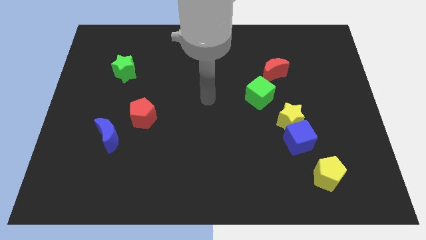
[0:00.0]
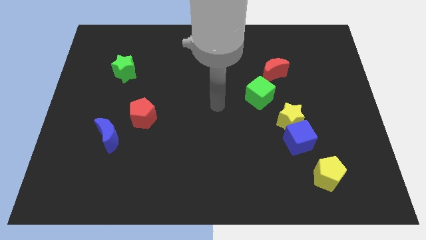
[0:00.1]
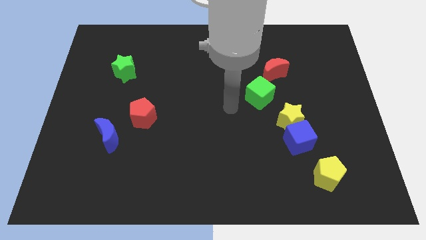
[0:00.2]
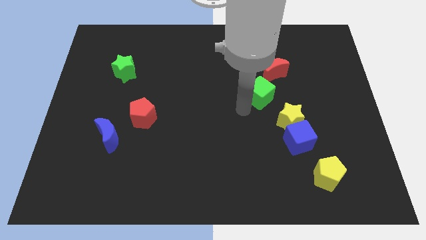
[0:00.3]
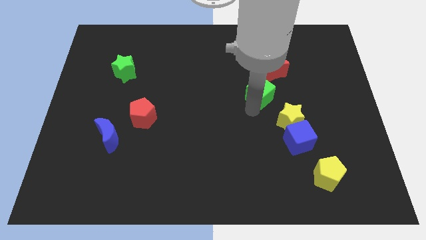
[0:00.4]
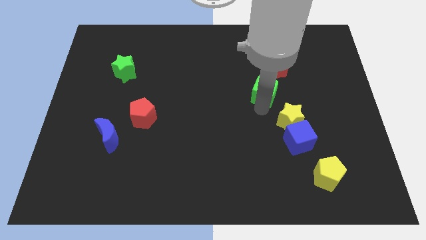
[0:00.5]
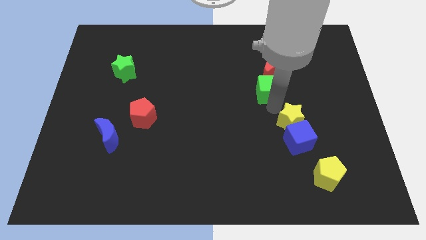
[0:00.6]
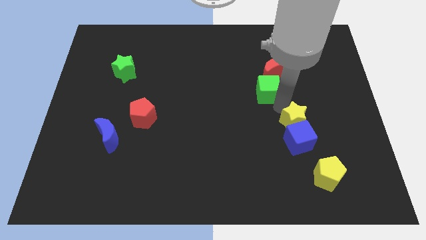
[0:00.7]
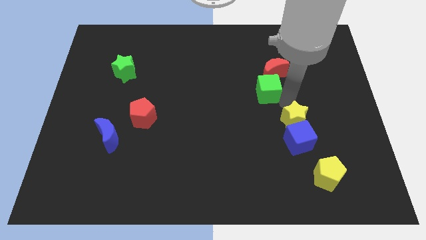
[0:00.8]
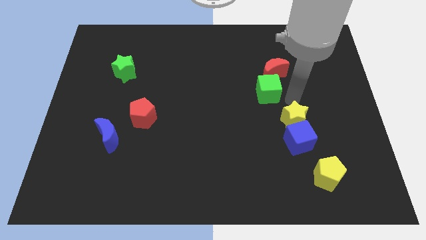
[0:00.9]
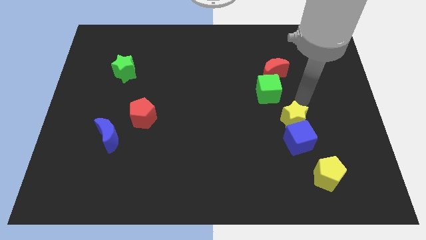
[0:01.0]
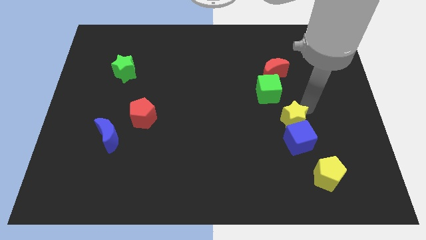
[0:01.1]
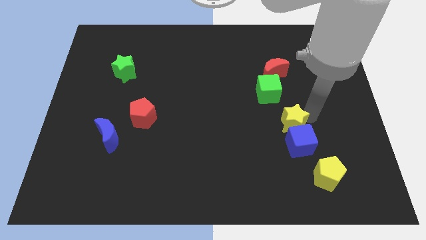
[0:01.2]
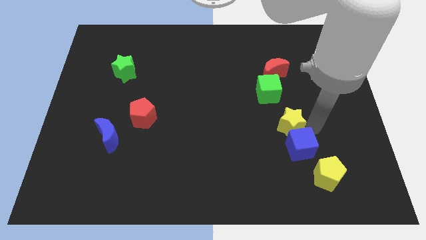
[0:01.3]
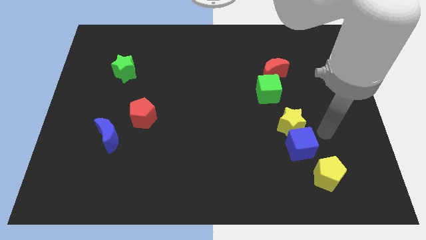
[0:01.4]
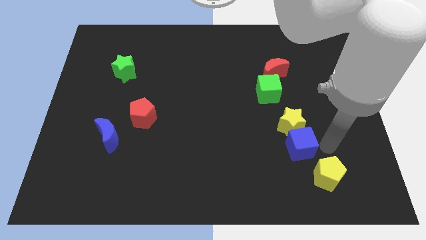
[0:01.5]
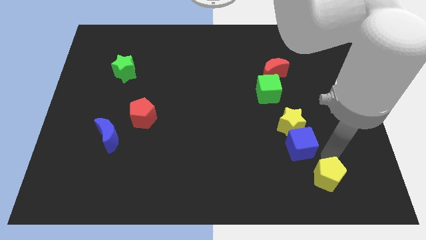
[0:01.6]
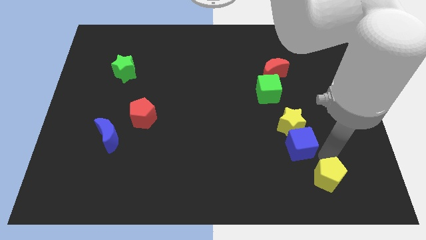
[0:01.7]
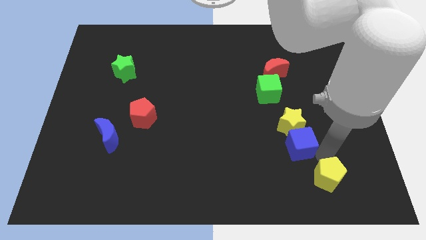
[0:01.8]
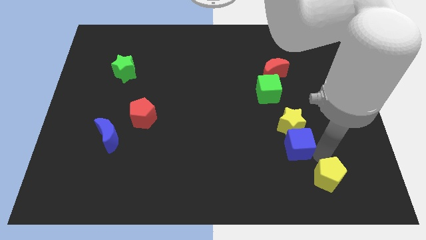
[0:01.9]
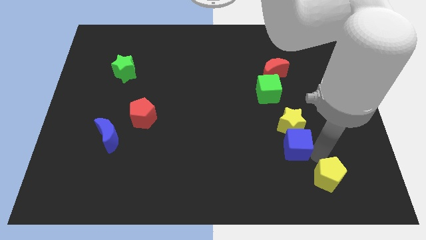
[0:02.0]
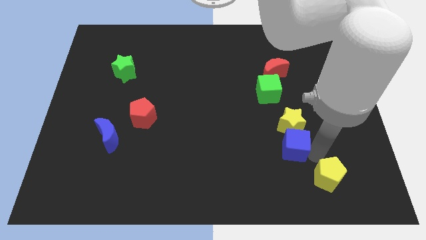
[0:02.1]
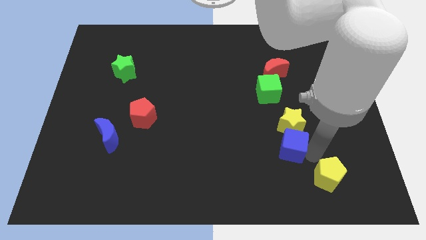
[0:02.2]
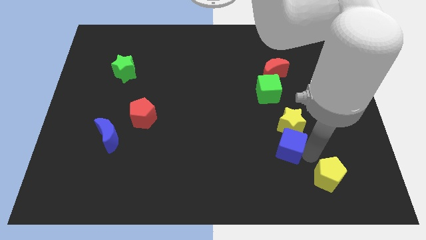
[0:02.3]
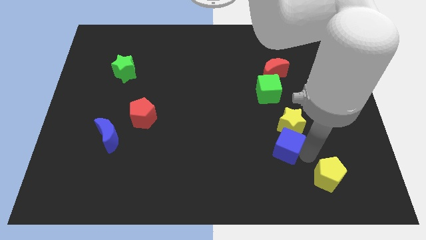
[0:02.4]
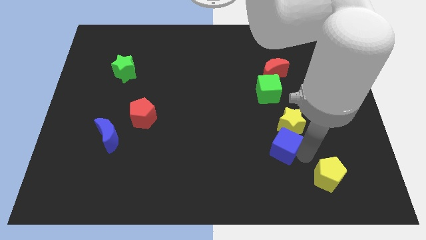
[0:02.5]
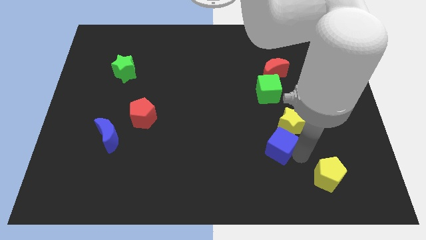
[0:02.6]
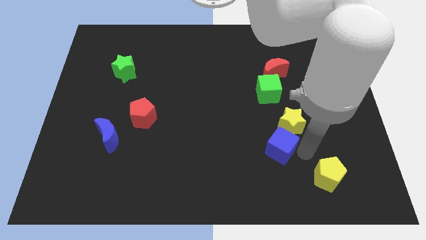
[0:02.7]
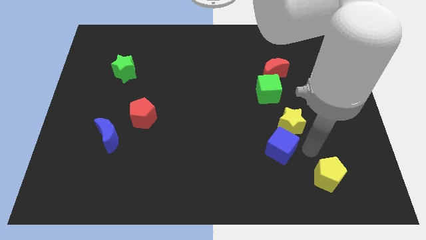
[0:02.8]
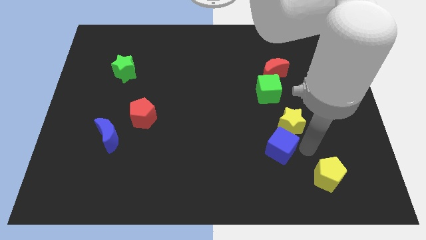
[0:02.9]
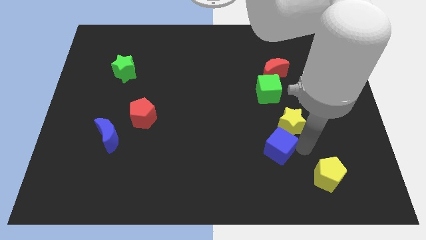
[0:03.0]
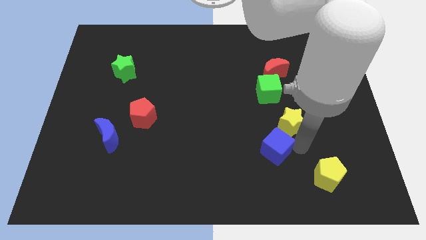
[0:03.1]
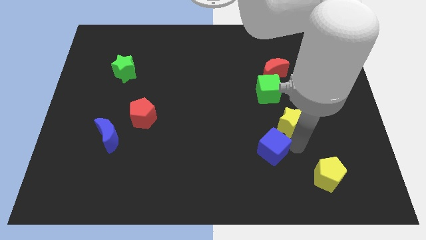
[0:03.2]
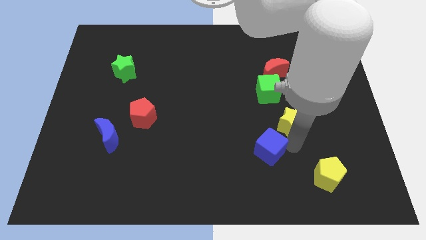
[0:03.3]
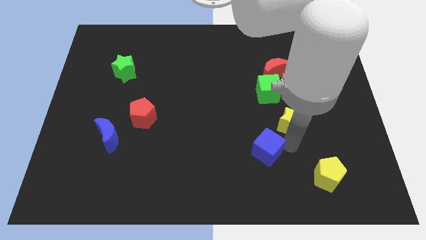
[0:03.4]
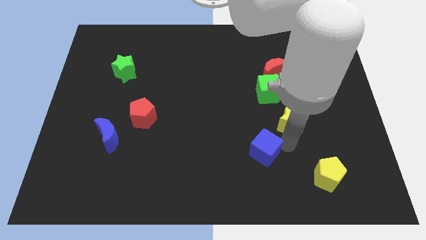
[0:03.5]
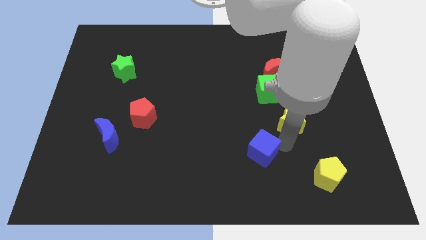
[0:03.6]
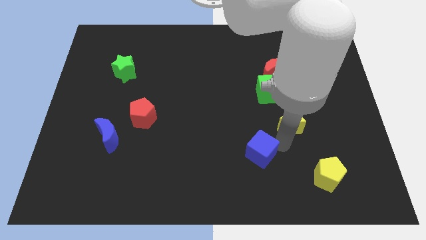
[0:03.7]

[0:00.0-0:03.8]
move the blue cube away from the yellow star and yellow pentagon

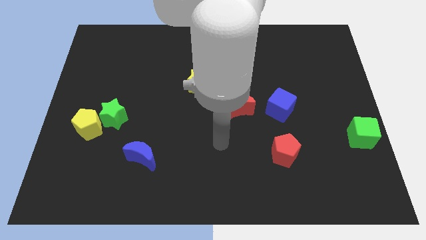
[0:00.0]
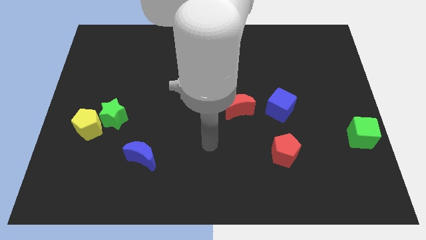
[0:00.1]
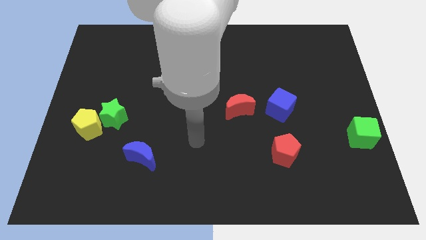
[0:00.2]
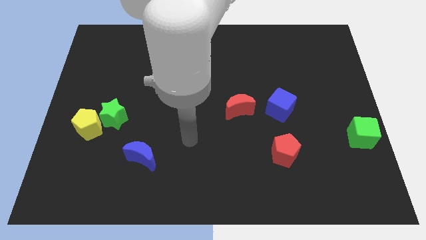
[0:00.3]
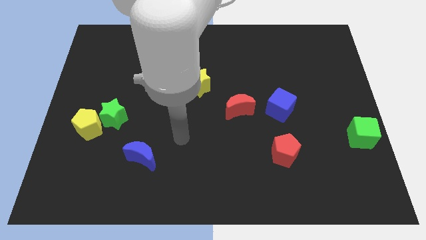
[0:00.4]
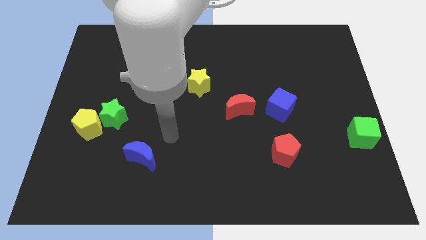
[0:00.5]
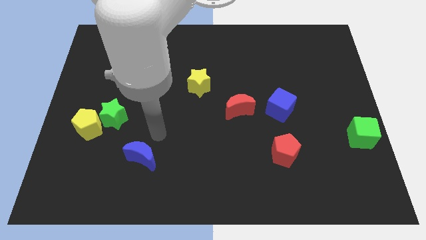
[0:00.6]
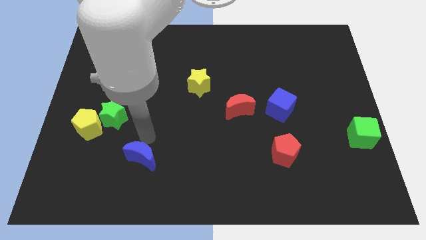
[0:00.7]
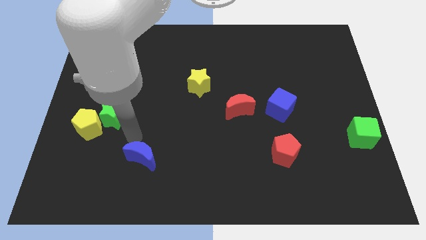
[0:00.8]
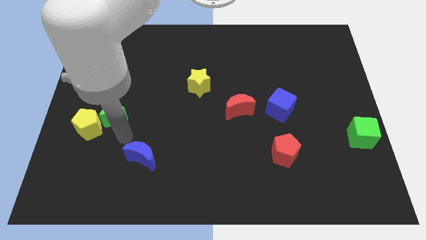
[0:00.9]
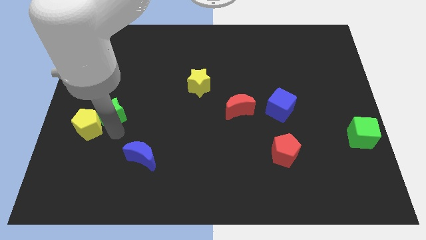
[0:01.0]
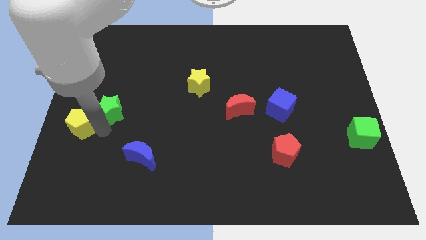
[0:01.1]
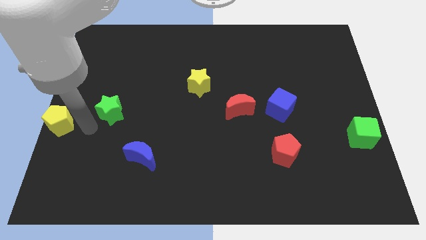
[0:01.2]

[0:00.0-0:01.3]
separate the green star from the yellow pentagon

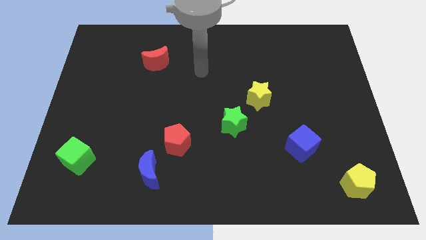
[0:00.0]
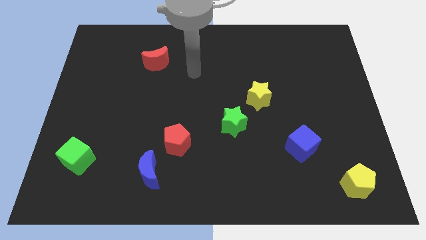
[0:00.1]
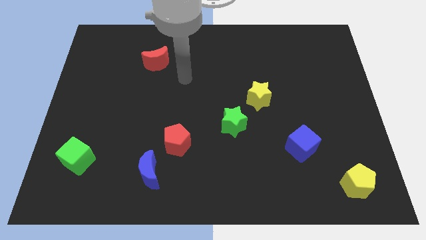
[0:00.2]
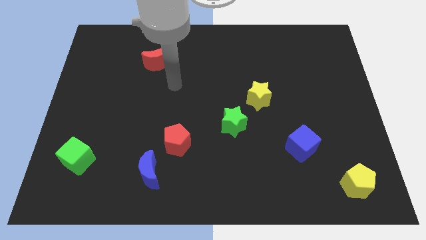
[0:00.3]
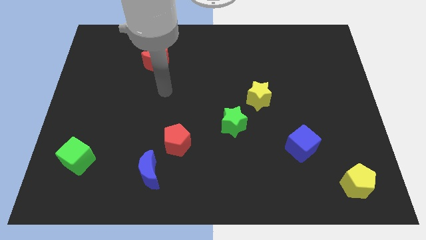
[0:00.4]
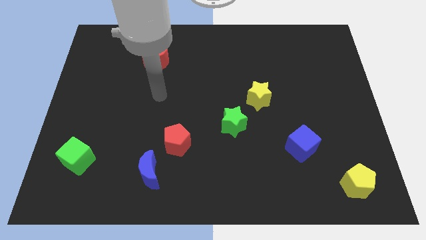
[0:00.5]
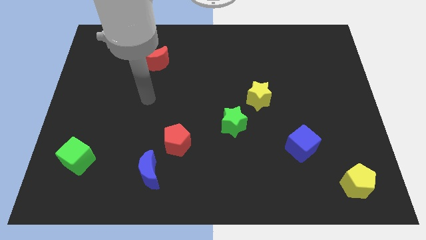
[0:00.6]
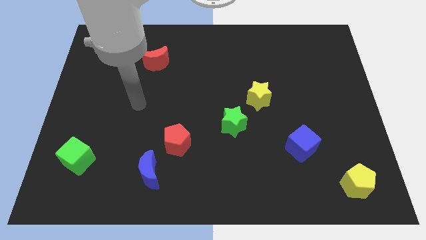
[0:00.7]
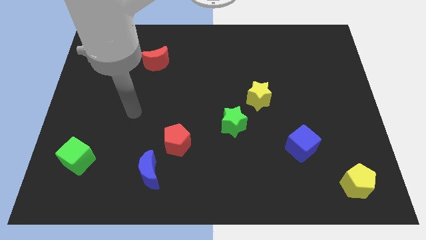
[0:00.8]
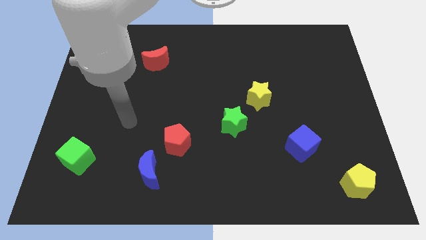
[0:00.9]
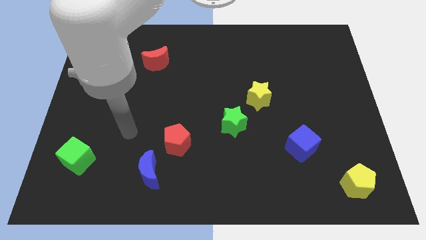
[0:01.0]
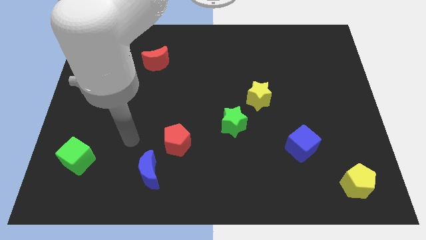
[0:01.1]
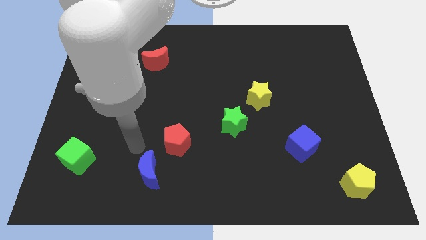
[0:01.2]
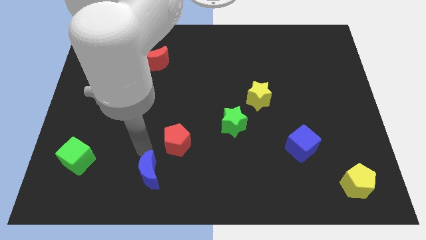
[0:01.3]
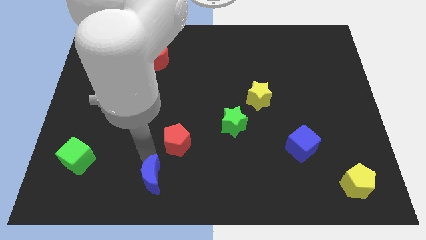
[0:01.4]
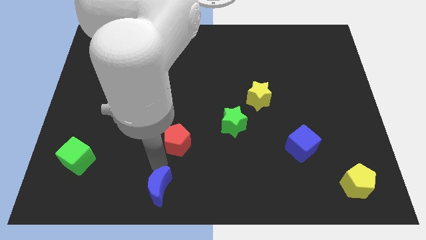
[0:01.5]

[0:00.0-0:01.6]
move the red pentagon away from the blue moon

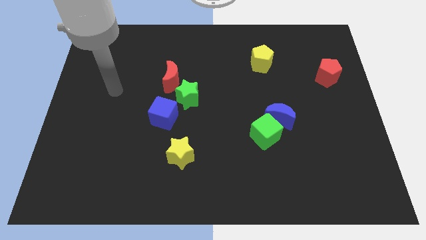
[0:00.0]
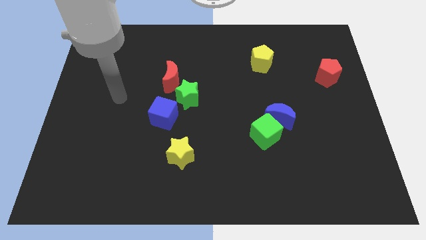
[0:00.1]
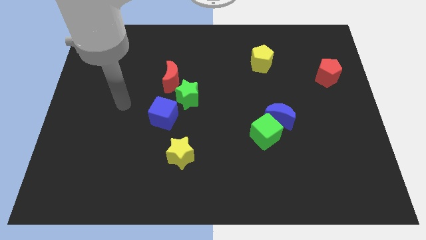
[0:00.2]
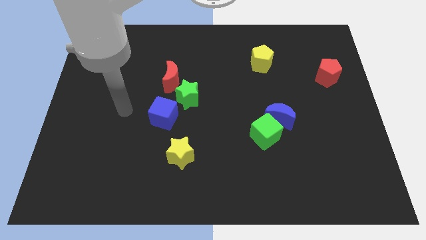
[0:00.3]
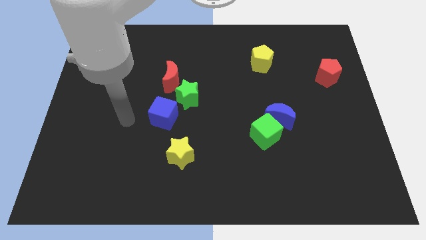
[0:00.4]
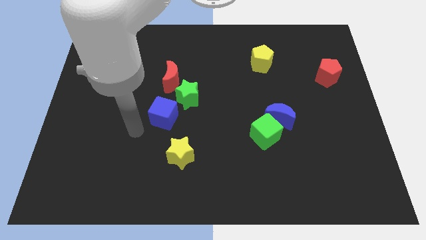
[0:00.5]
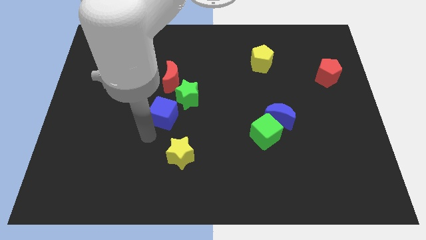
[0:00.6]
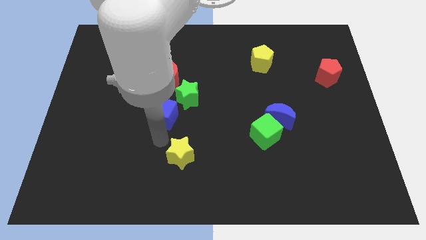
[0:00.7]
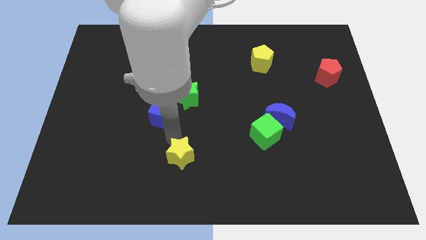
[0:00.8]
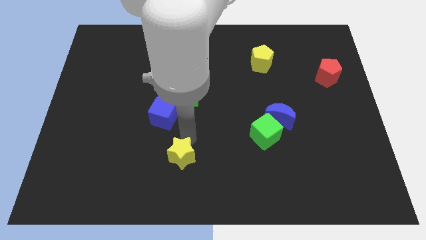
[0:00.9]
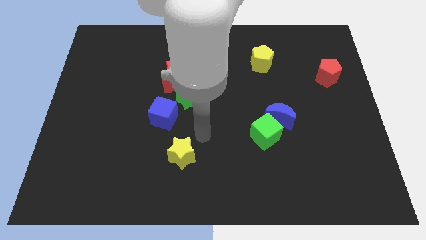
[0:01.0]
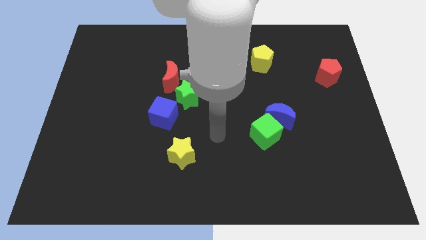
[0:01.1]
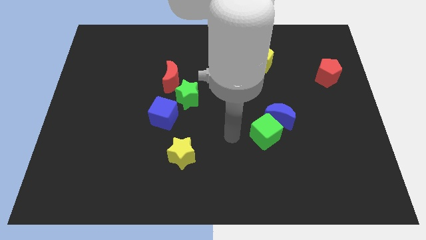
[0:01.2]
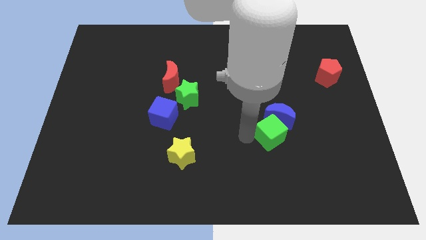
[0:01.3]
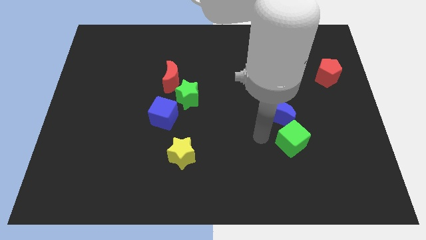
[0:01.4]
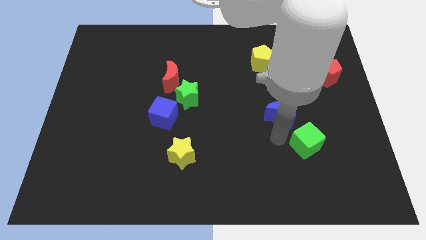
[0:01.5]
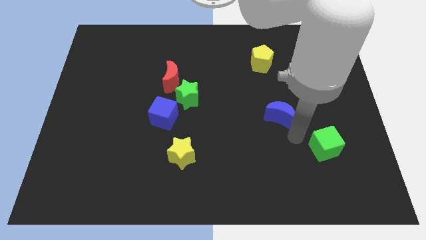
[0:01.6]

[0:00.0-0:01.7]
pull the blue moon apart from the green cube

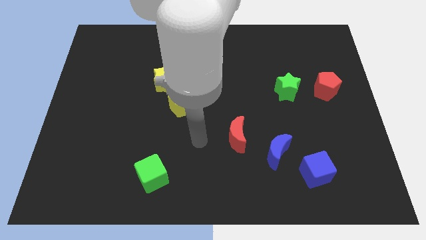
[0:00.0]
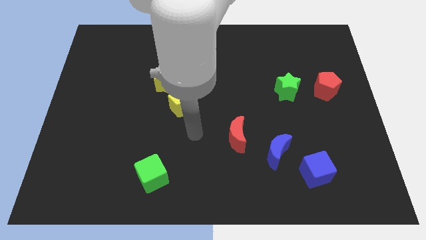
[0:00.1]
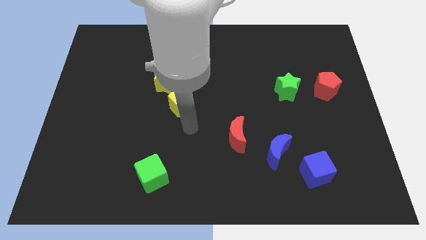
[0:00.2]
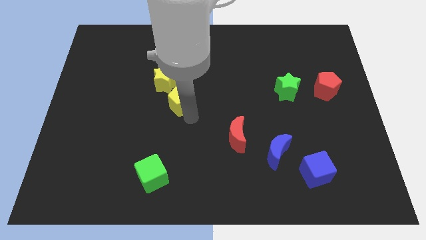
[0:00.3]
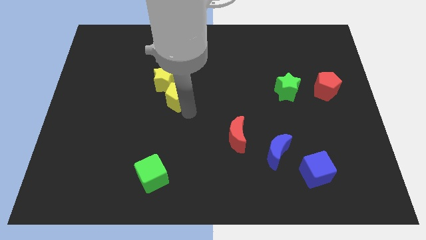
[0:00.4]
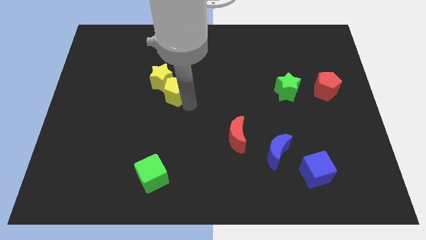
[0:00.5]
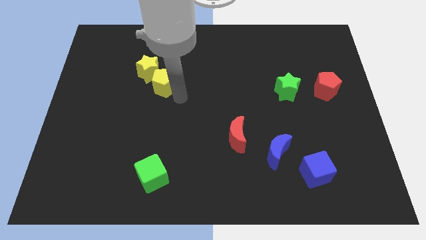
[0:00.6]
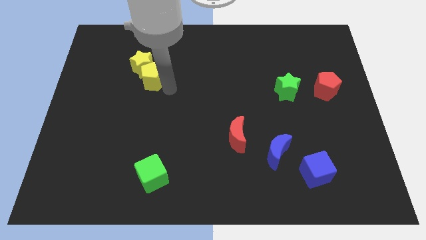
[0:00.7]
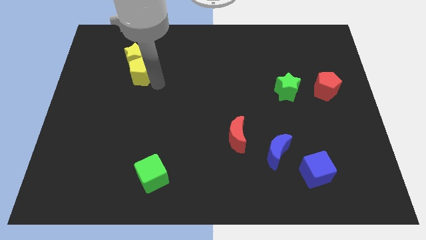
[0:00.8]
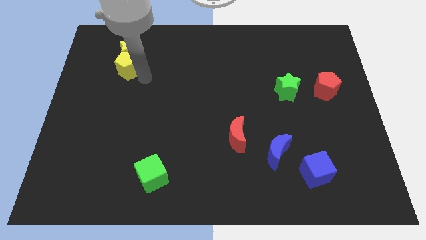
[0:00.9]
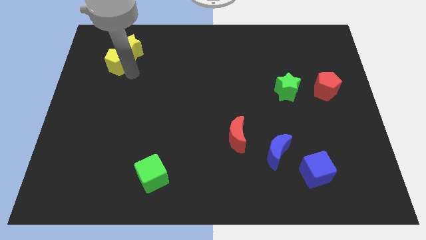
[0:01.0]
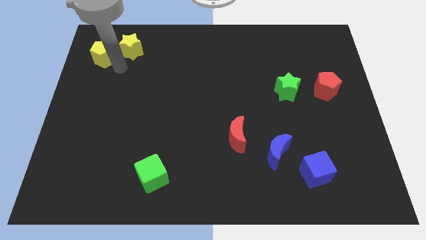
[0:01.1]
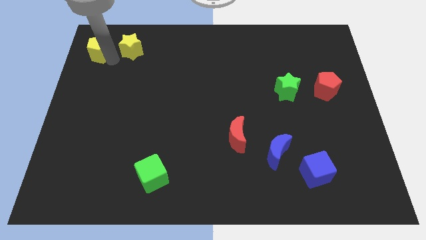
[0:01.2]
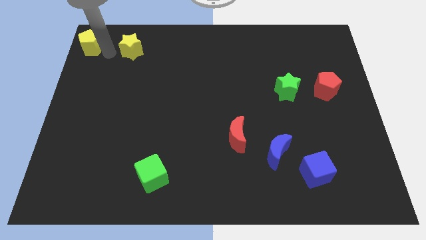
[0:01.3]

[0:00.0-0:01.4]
move the yellow star away from the yellow pentagon
